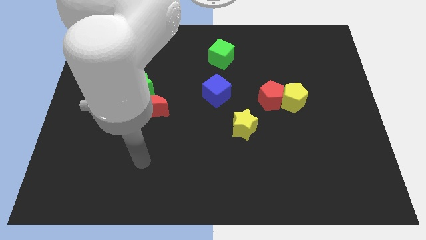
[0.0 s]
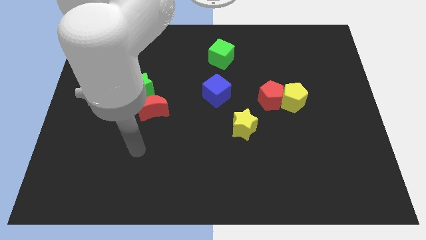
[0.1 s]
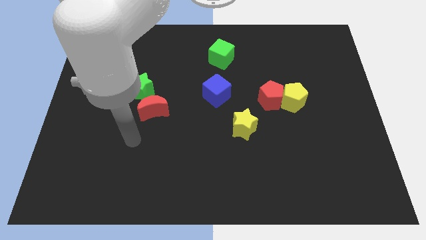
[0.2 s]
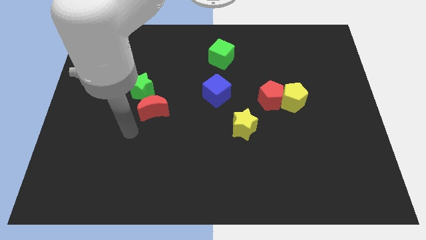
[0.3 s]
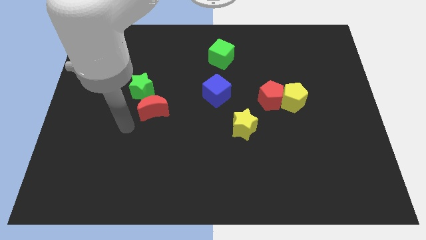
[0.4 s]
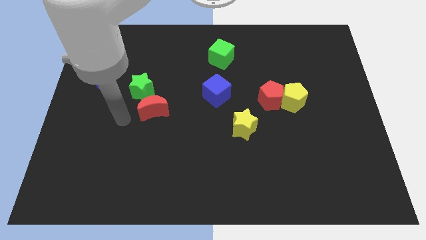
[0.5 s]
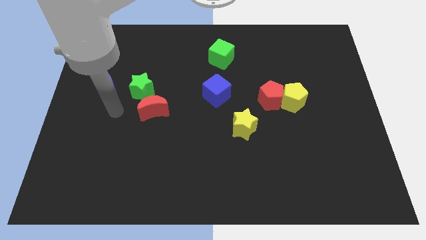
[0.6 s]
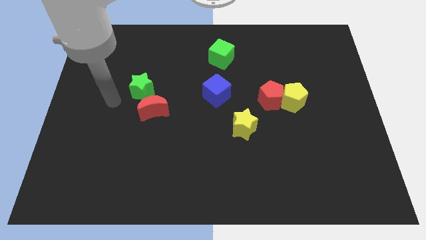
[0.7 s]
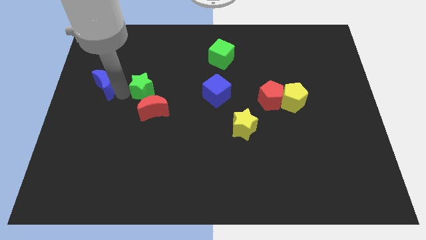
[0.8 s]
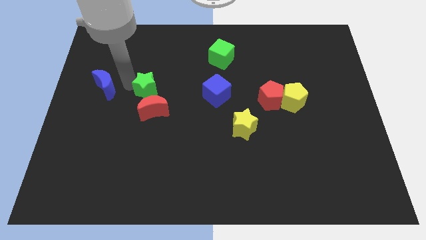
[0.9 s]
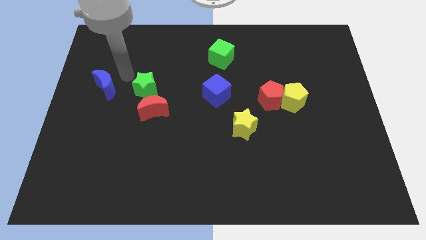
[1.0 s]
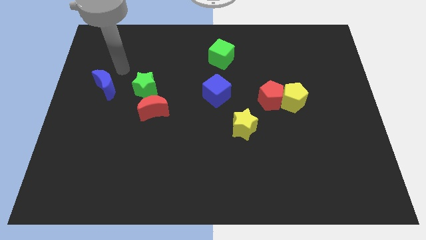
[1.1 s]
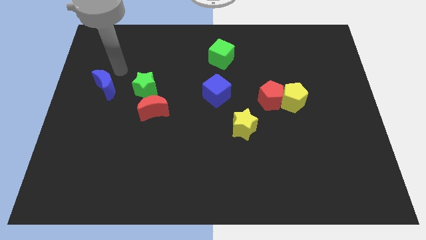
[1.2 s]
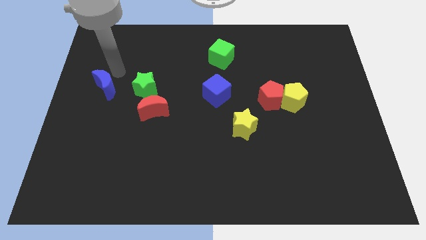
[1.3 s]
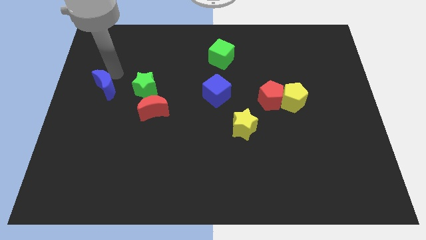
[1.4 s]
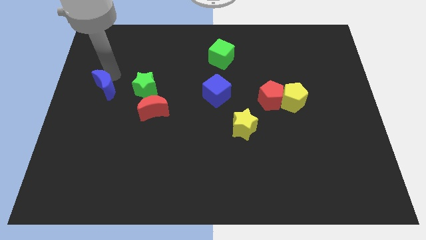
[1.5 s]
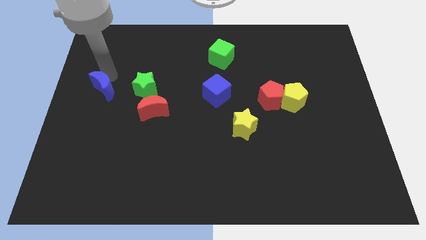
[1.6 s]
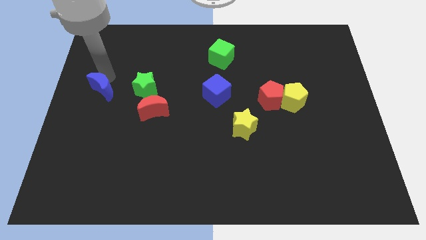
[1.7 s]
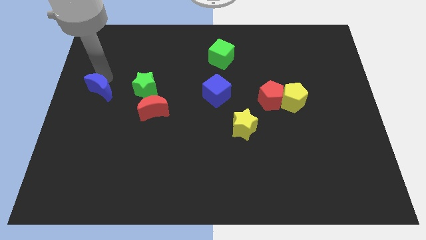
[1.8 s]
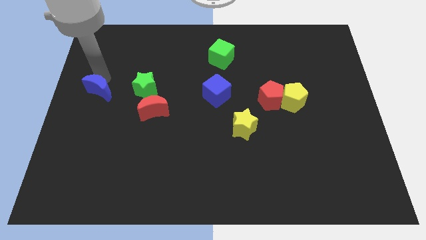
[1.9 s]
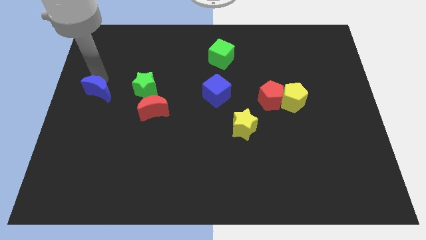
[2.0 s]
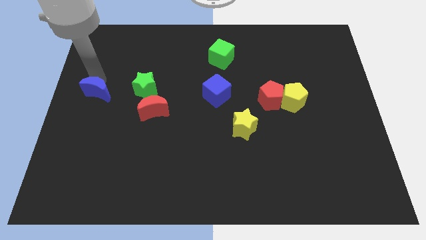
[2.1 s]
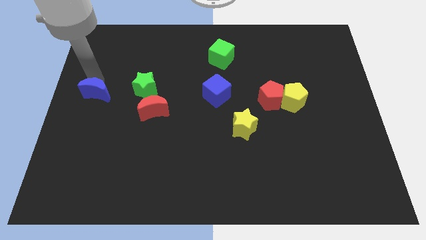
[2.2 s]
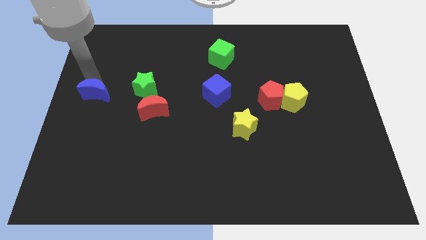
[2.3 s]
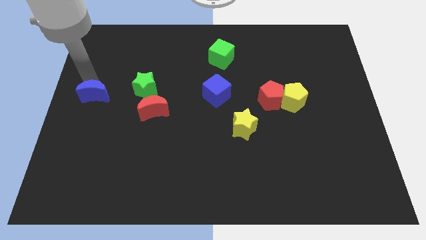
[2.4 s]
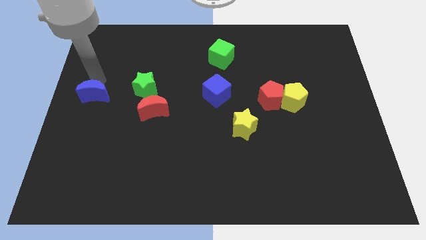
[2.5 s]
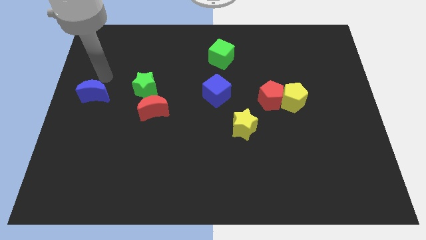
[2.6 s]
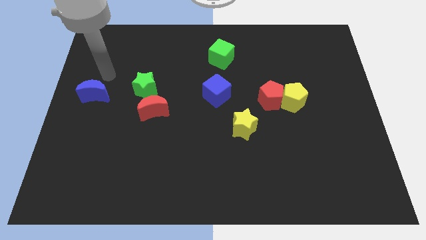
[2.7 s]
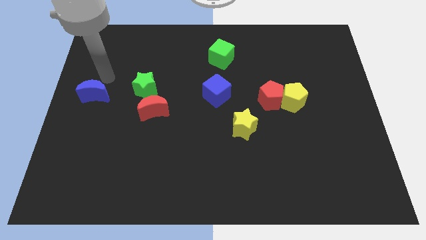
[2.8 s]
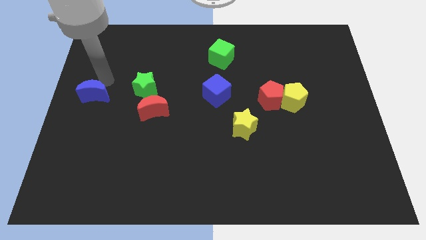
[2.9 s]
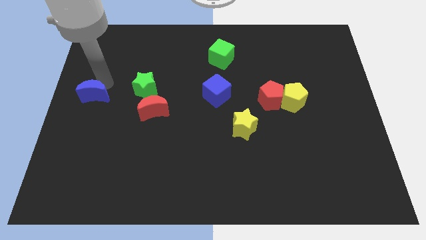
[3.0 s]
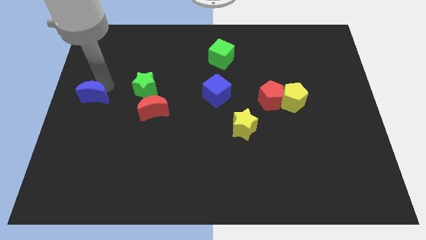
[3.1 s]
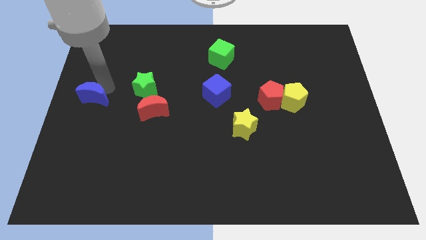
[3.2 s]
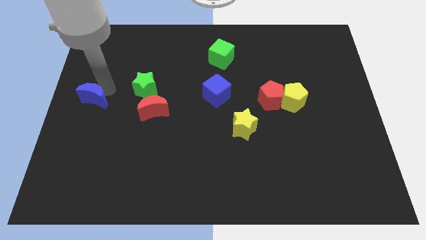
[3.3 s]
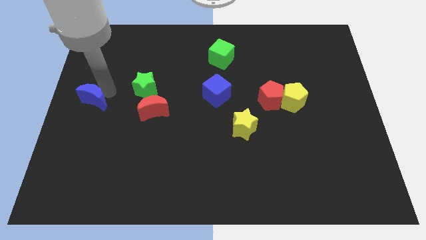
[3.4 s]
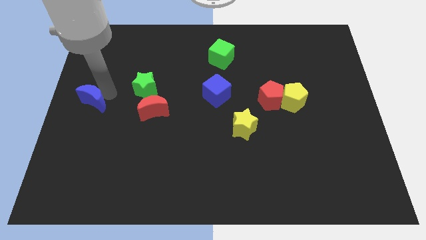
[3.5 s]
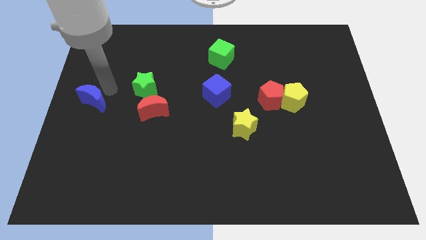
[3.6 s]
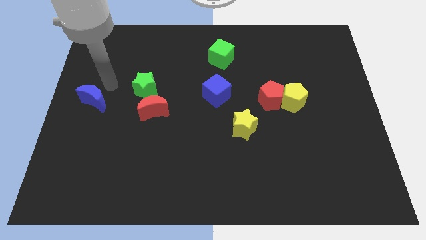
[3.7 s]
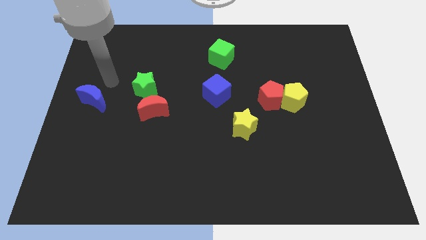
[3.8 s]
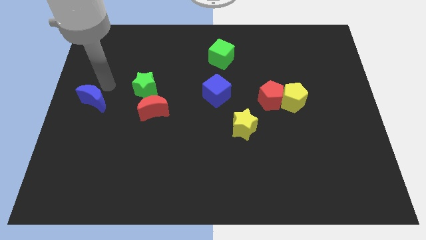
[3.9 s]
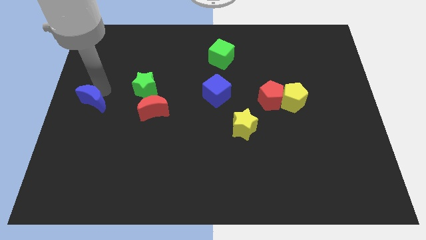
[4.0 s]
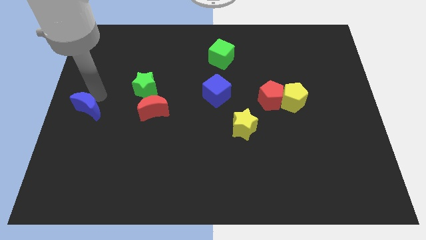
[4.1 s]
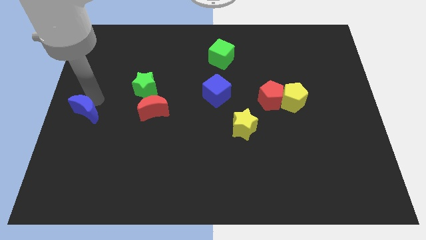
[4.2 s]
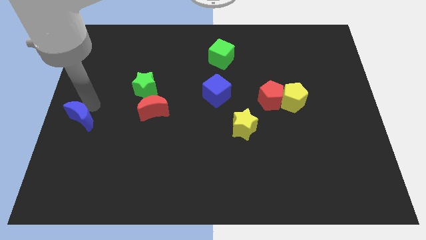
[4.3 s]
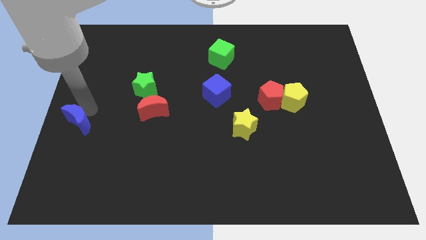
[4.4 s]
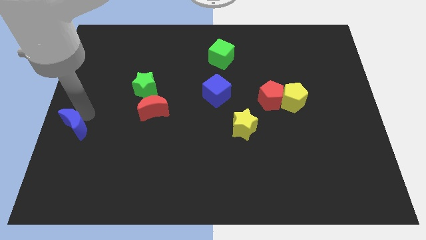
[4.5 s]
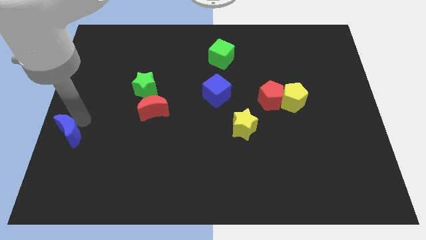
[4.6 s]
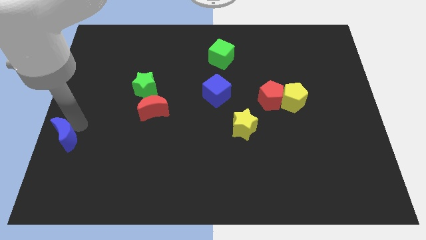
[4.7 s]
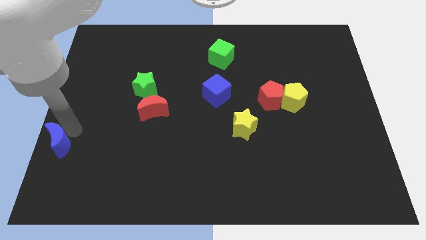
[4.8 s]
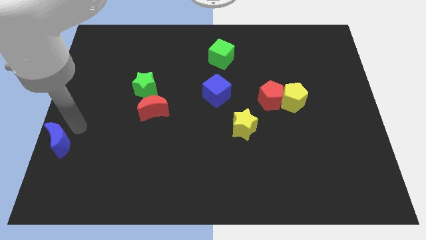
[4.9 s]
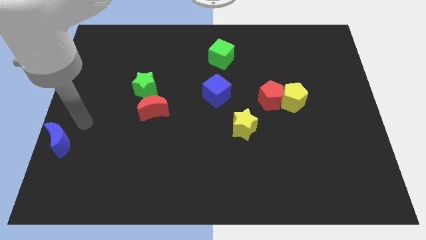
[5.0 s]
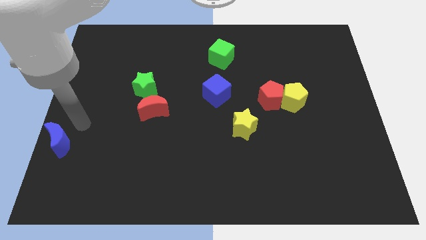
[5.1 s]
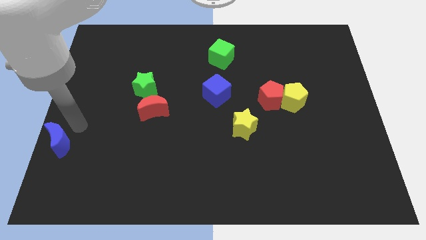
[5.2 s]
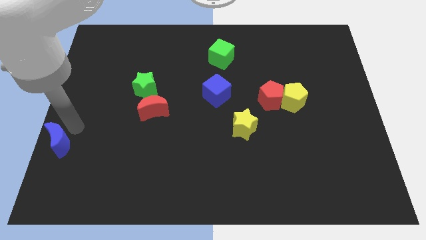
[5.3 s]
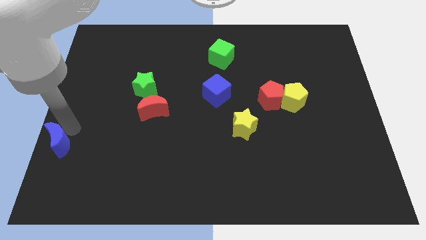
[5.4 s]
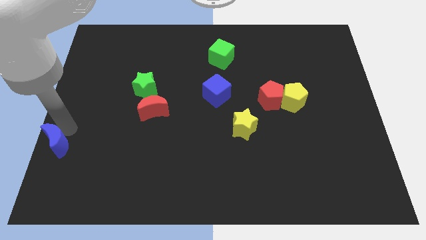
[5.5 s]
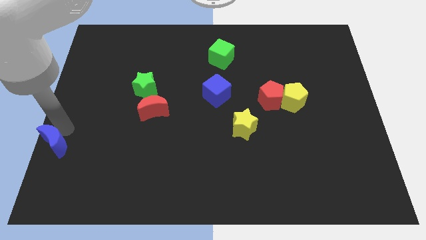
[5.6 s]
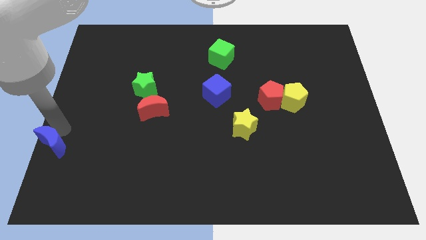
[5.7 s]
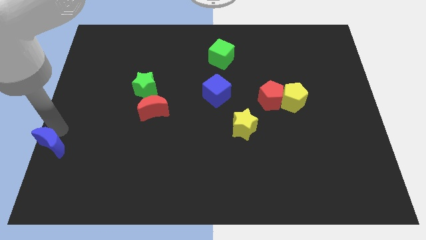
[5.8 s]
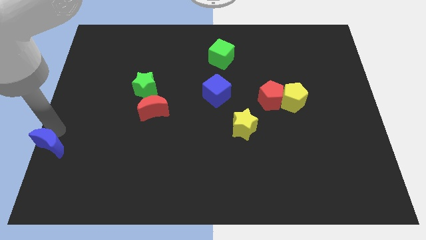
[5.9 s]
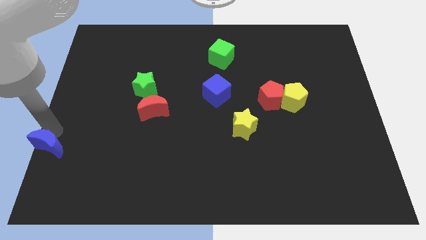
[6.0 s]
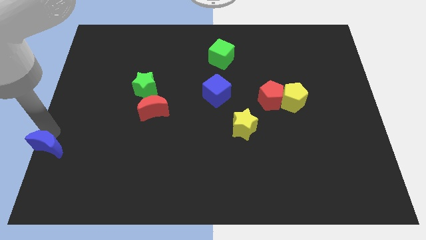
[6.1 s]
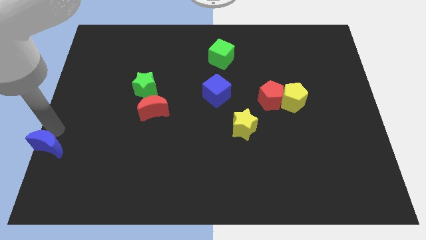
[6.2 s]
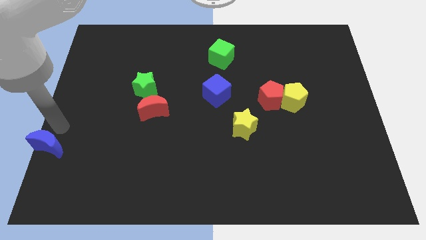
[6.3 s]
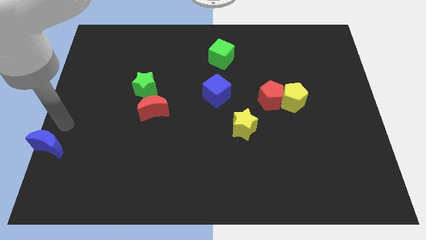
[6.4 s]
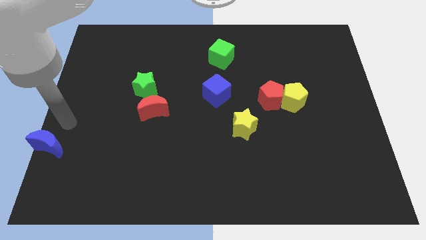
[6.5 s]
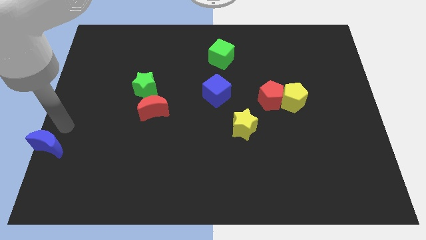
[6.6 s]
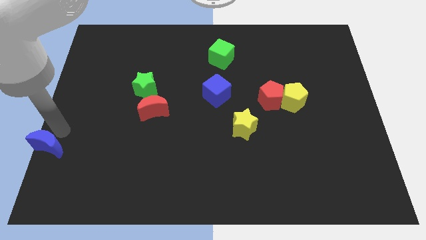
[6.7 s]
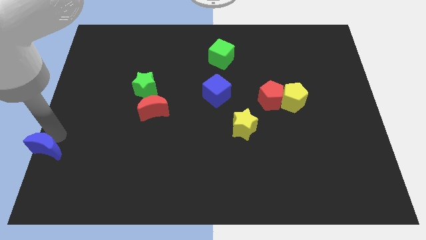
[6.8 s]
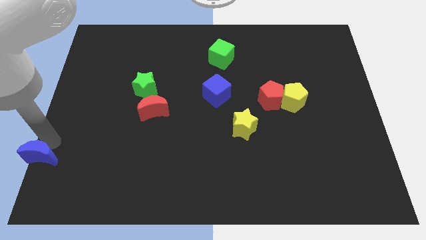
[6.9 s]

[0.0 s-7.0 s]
push the blue moon to the lower left corner
